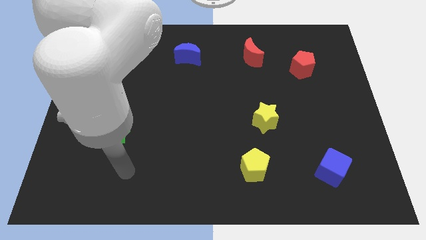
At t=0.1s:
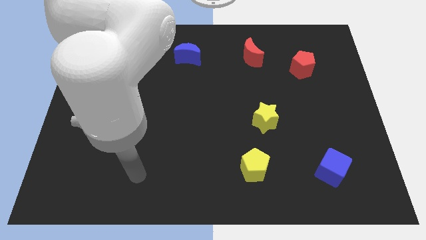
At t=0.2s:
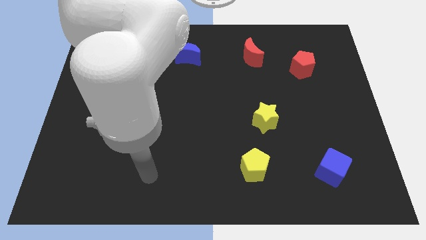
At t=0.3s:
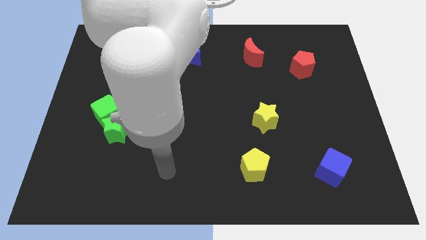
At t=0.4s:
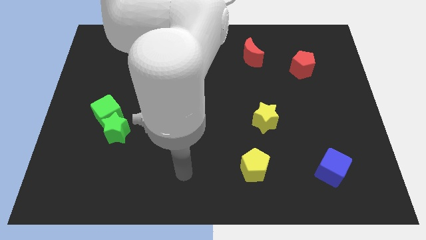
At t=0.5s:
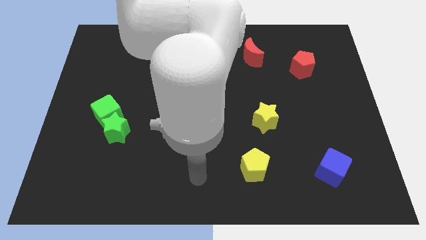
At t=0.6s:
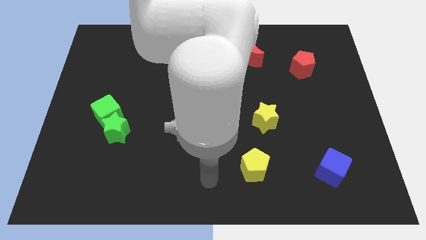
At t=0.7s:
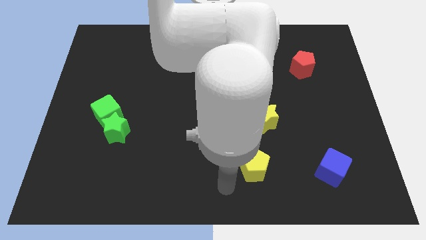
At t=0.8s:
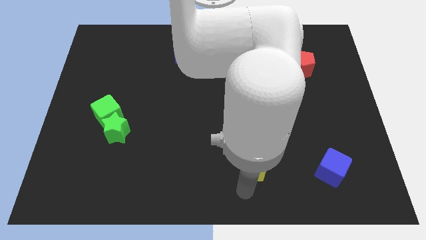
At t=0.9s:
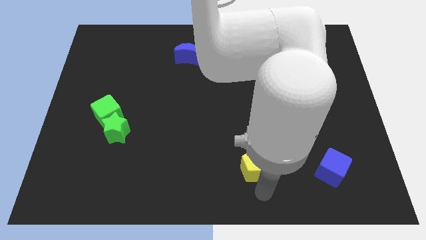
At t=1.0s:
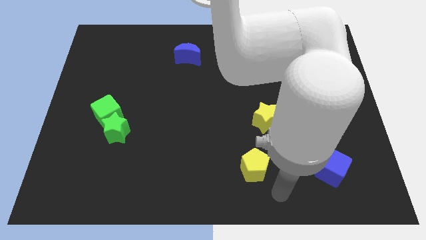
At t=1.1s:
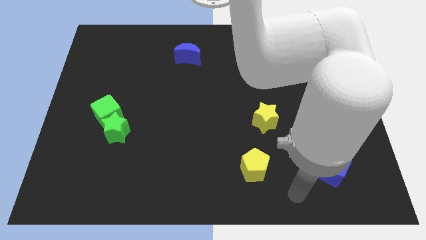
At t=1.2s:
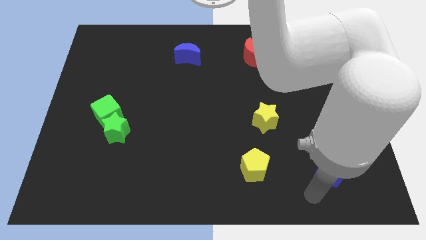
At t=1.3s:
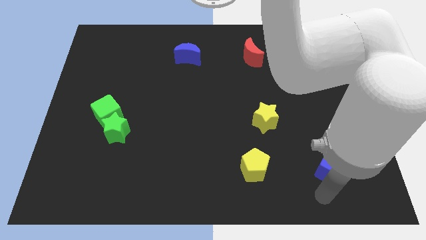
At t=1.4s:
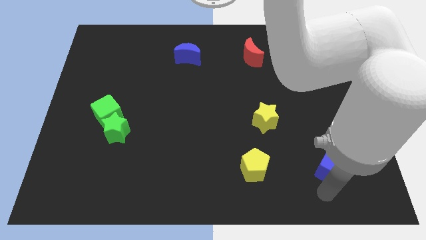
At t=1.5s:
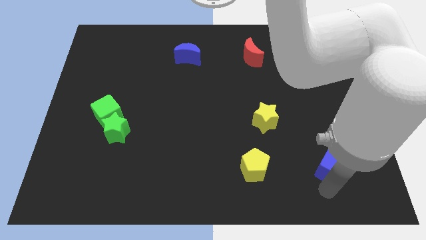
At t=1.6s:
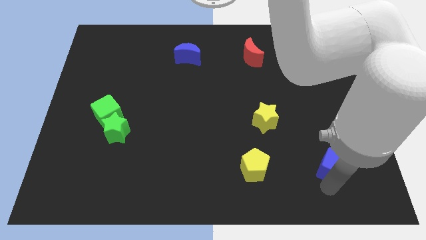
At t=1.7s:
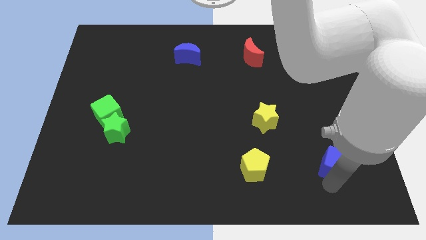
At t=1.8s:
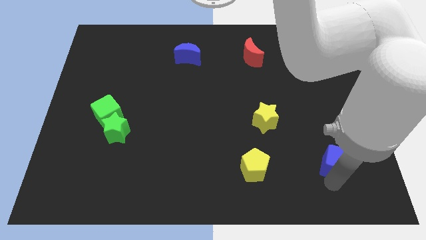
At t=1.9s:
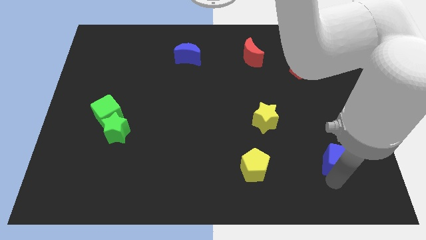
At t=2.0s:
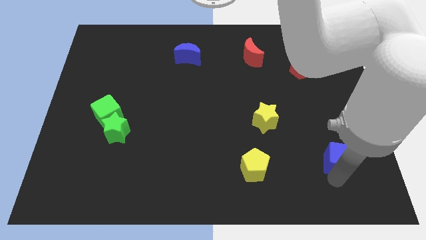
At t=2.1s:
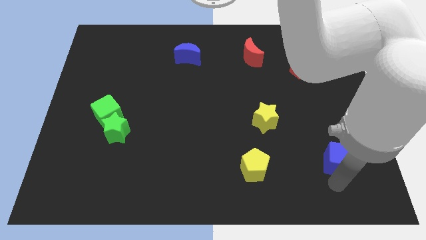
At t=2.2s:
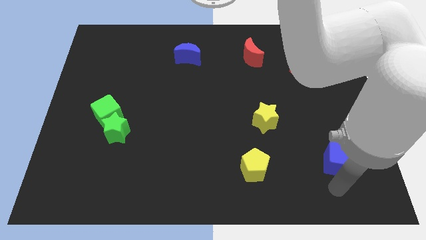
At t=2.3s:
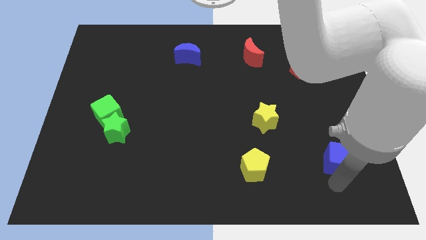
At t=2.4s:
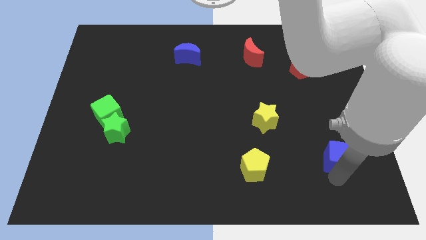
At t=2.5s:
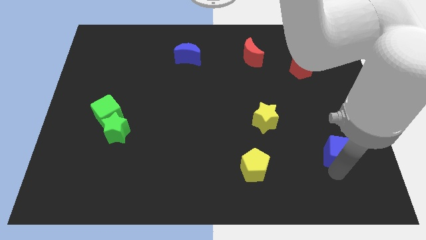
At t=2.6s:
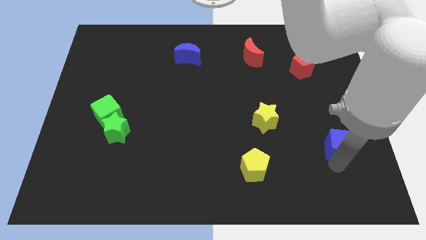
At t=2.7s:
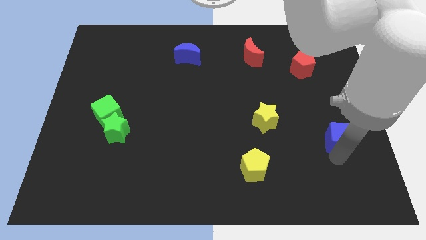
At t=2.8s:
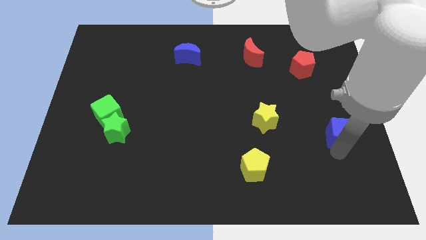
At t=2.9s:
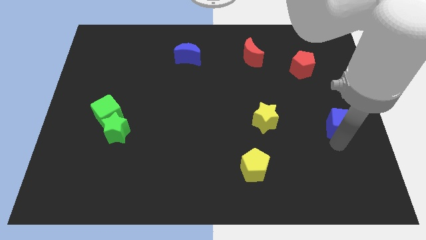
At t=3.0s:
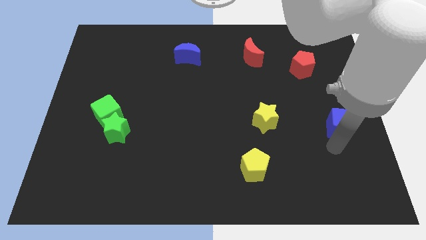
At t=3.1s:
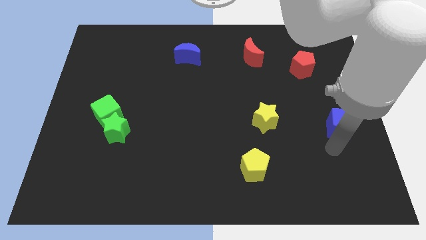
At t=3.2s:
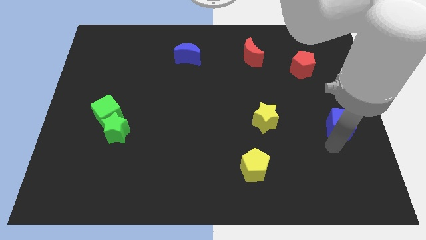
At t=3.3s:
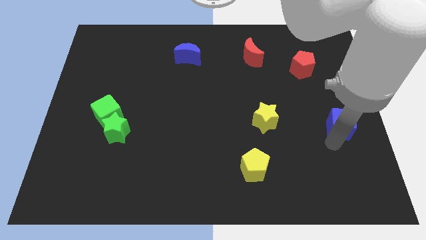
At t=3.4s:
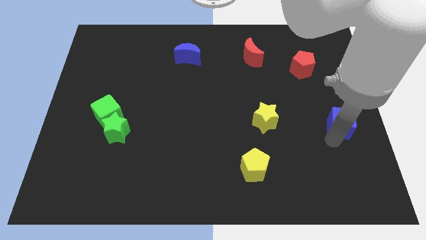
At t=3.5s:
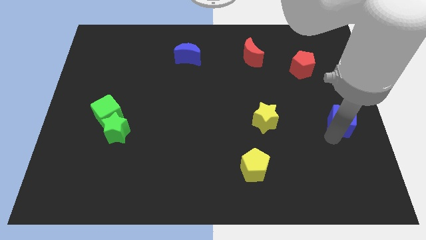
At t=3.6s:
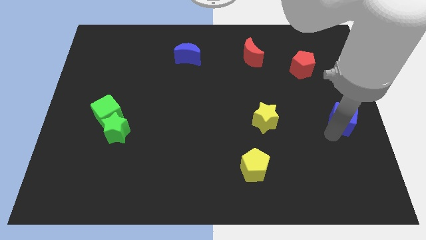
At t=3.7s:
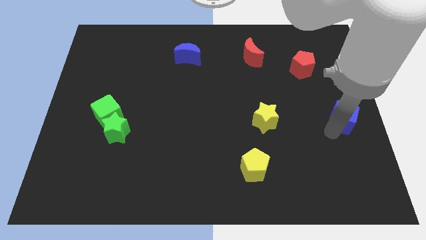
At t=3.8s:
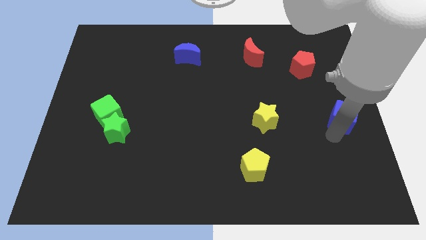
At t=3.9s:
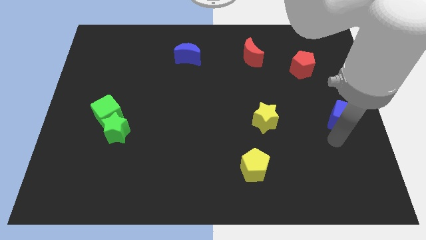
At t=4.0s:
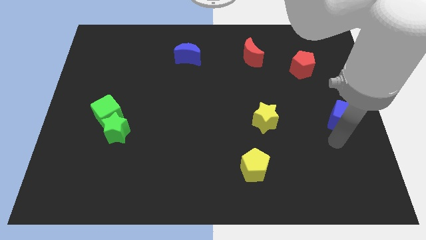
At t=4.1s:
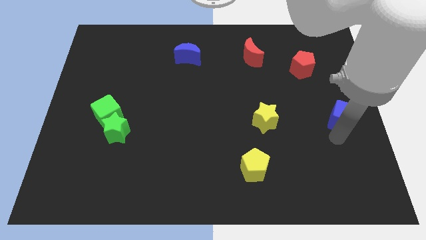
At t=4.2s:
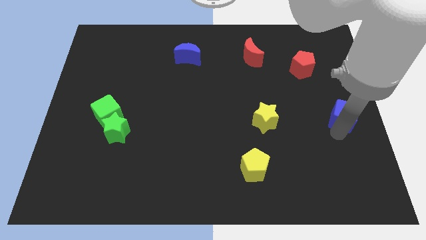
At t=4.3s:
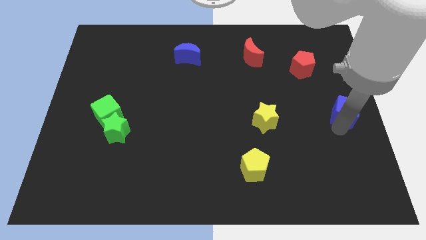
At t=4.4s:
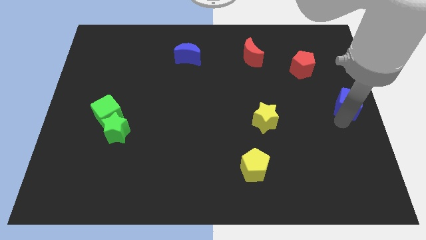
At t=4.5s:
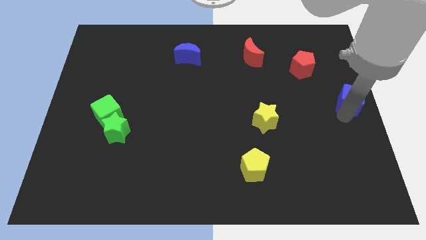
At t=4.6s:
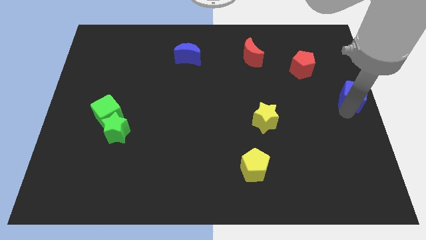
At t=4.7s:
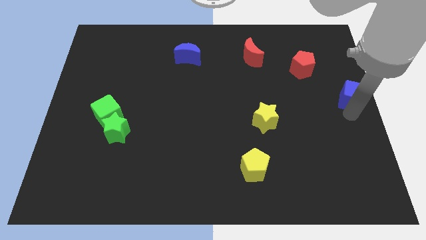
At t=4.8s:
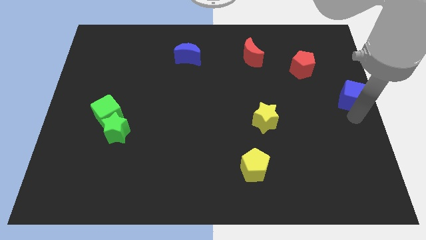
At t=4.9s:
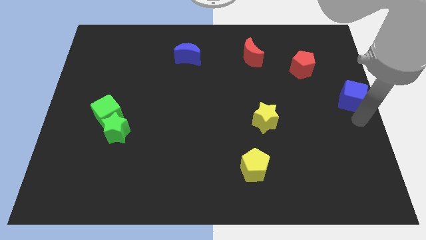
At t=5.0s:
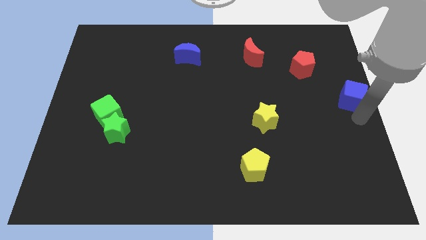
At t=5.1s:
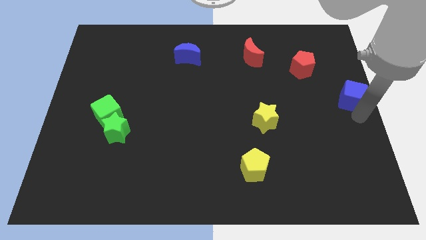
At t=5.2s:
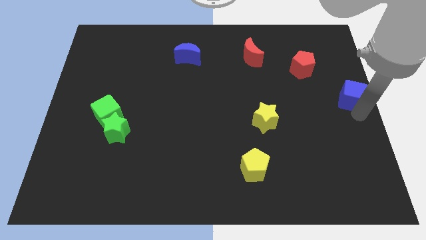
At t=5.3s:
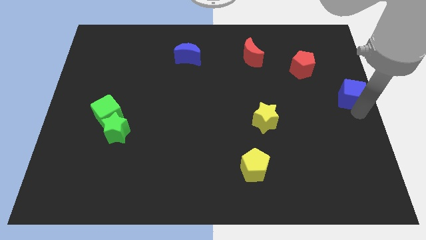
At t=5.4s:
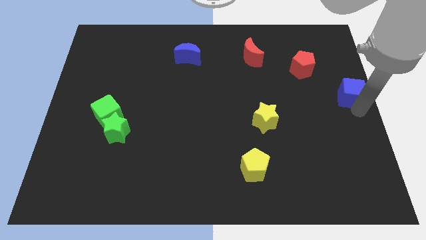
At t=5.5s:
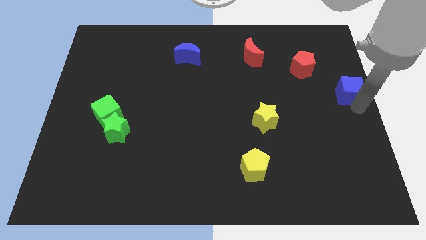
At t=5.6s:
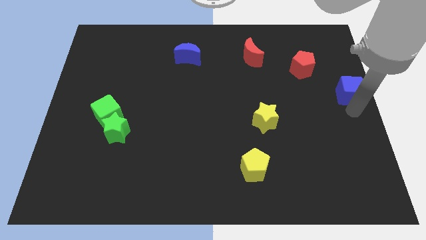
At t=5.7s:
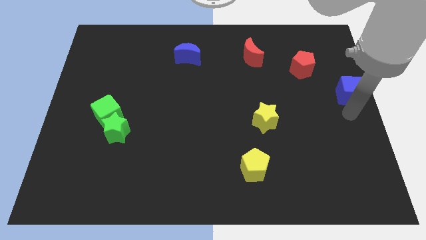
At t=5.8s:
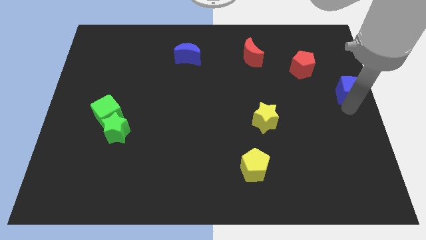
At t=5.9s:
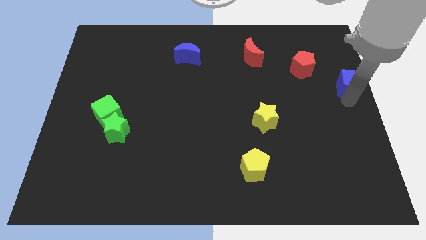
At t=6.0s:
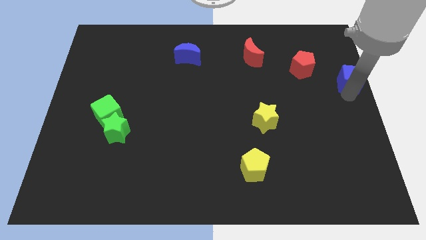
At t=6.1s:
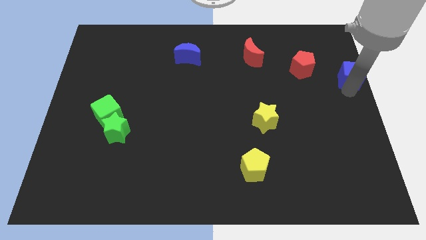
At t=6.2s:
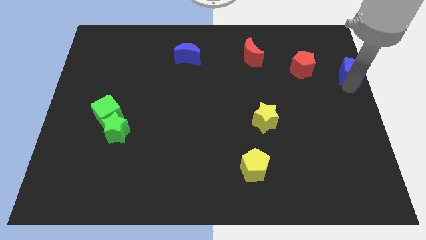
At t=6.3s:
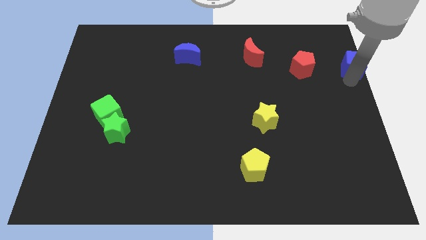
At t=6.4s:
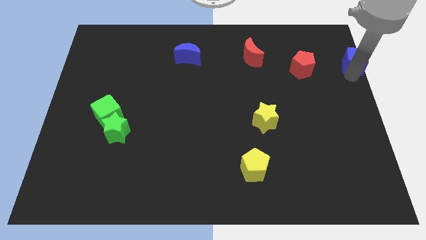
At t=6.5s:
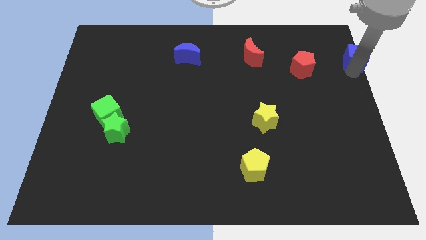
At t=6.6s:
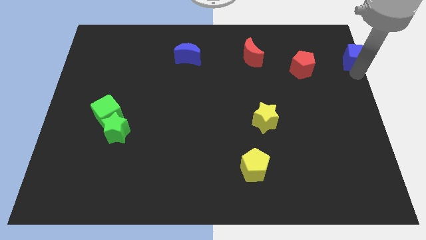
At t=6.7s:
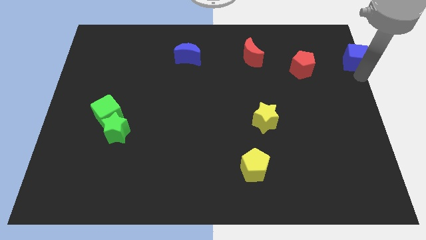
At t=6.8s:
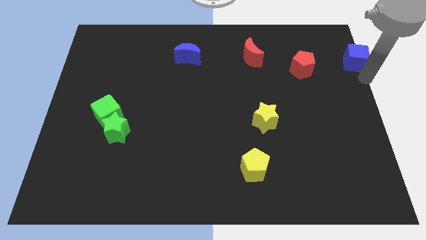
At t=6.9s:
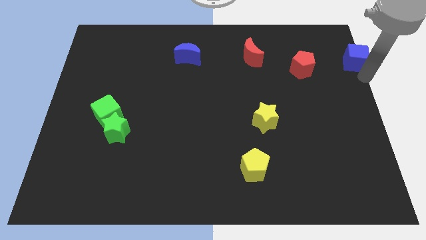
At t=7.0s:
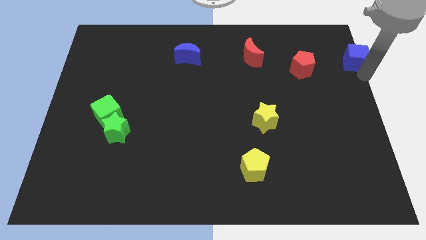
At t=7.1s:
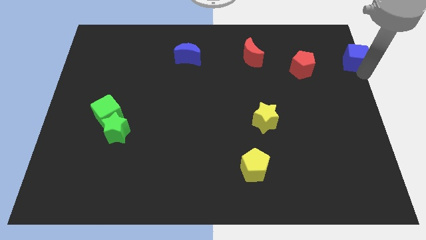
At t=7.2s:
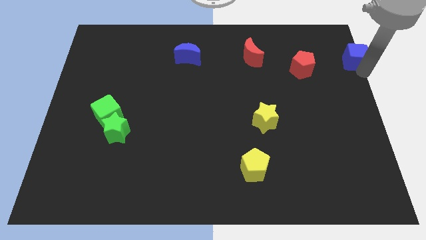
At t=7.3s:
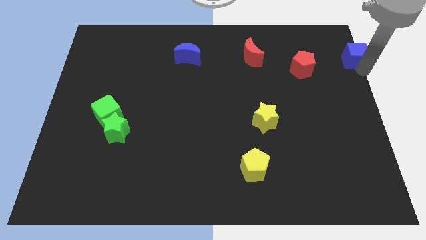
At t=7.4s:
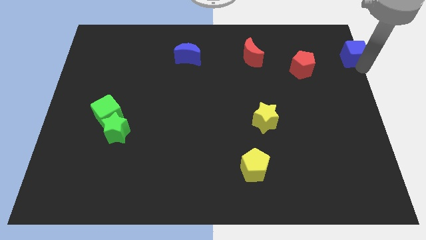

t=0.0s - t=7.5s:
slide the blue cube to the top right of the board
